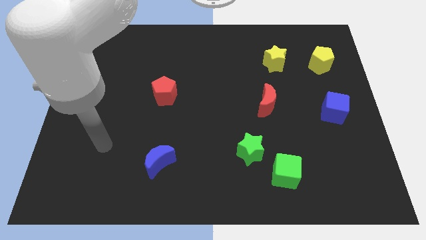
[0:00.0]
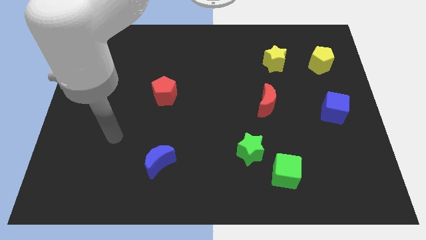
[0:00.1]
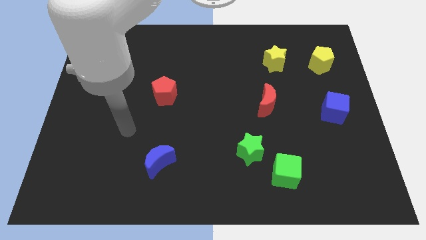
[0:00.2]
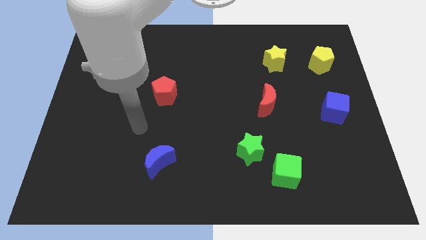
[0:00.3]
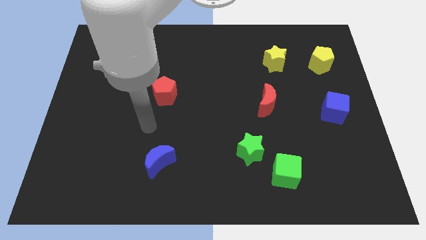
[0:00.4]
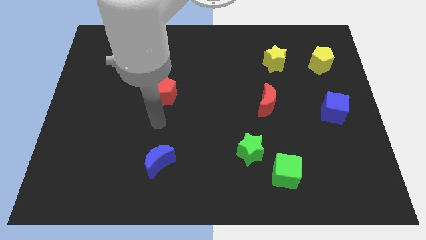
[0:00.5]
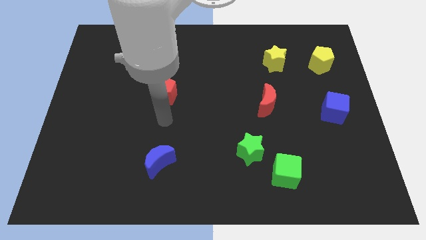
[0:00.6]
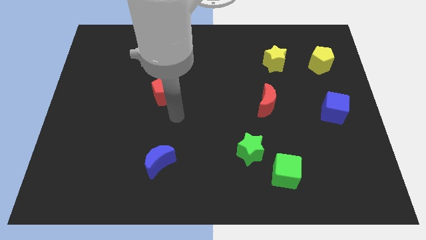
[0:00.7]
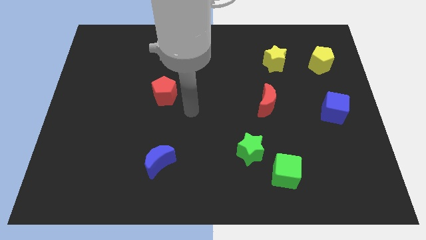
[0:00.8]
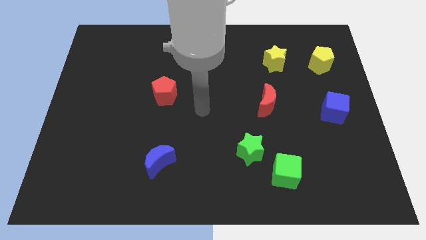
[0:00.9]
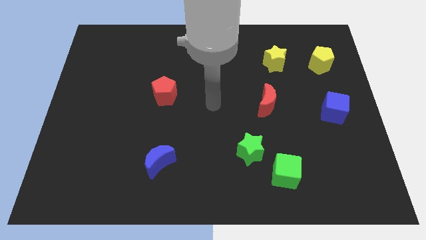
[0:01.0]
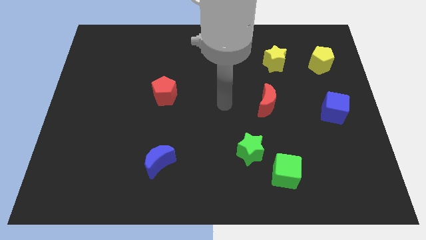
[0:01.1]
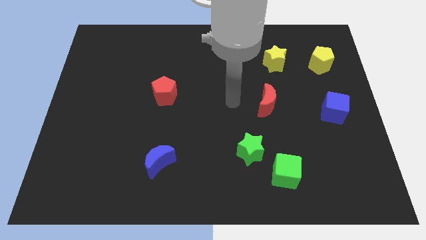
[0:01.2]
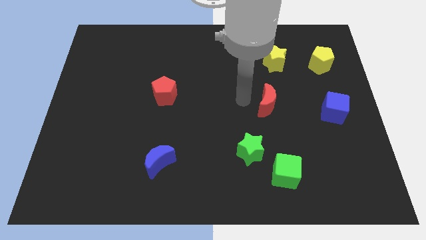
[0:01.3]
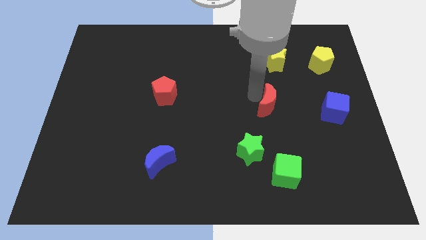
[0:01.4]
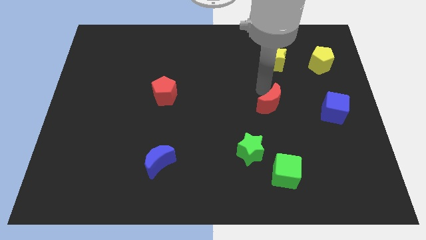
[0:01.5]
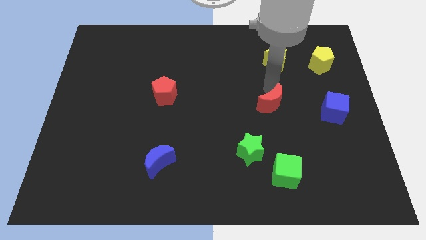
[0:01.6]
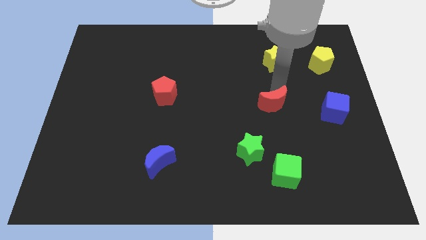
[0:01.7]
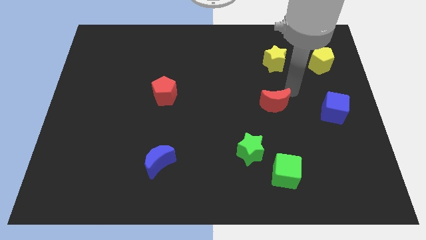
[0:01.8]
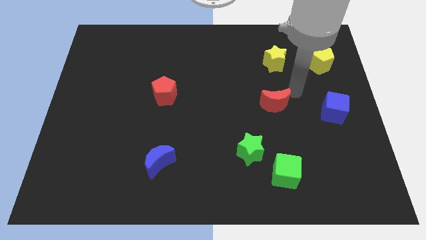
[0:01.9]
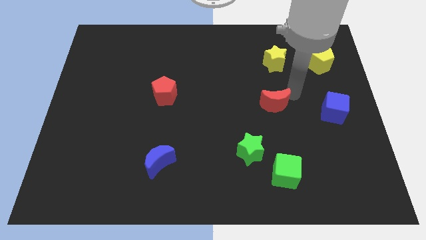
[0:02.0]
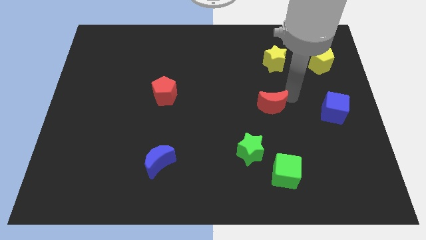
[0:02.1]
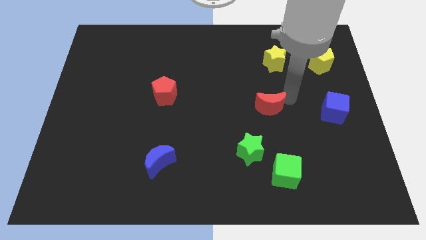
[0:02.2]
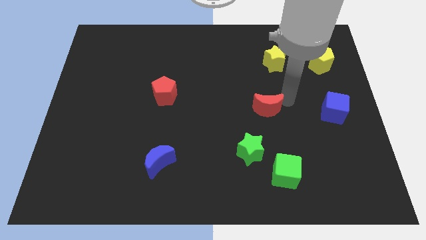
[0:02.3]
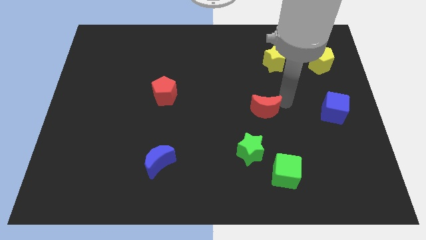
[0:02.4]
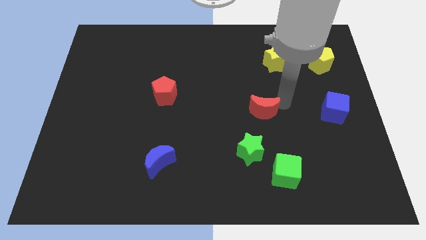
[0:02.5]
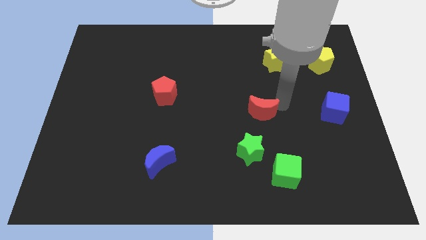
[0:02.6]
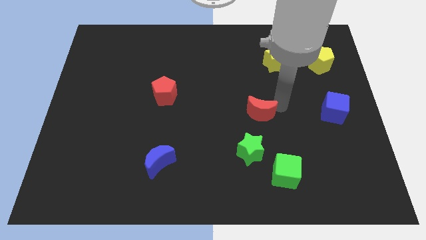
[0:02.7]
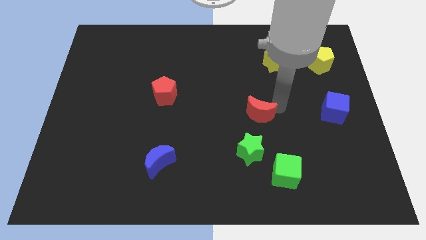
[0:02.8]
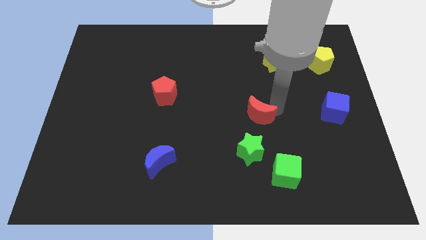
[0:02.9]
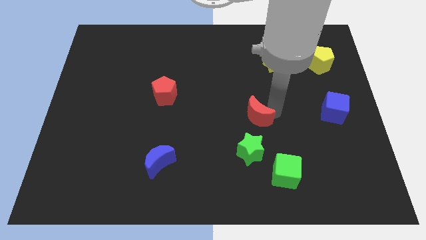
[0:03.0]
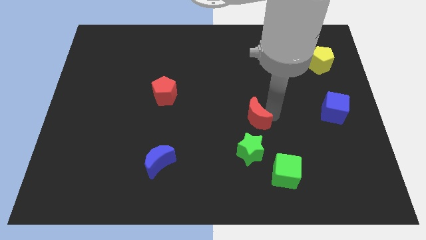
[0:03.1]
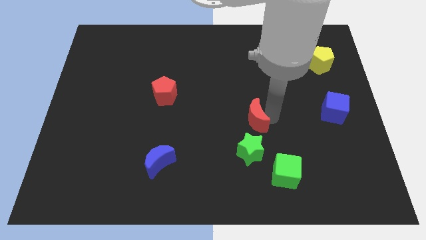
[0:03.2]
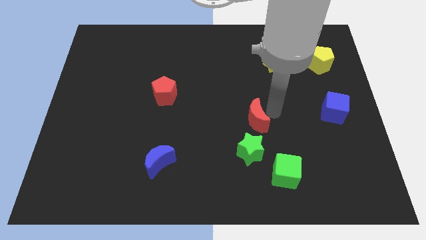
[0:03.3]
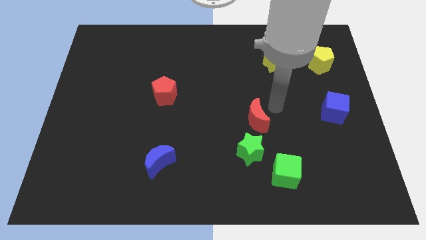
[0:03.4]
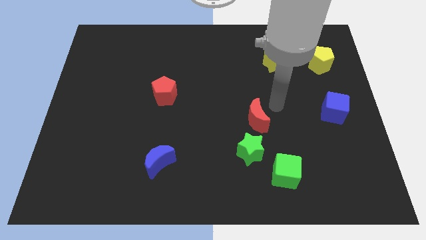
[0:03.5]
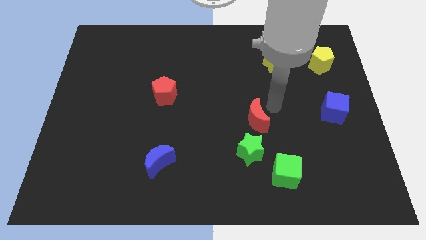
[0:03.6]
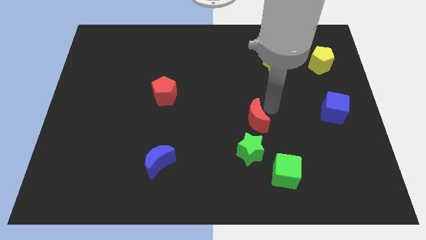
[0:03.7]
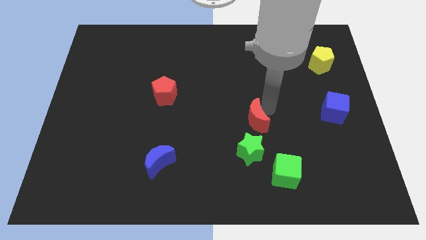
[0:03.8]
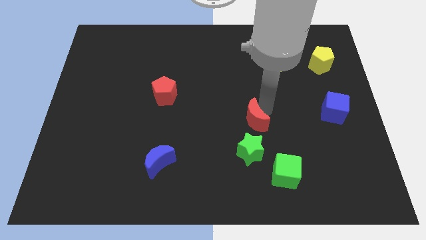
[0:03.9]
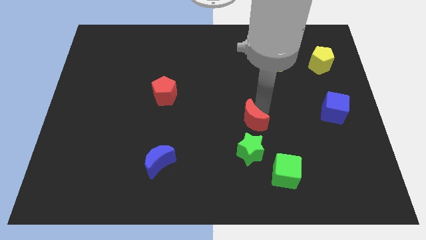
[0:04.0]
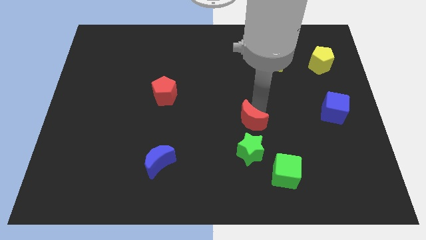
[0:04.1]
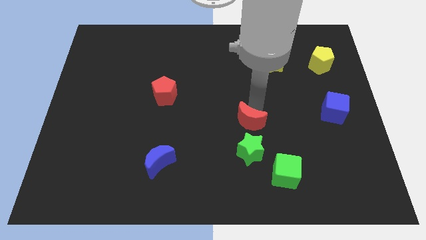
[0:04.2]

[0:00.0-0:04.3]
slide the red moon a bit down and to the left diagonally

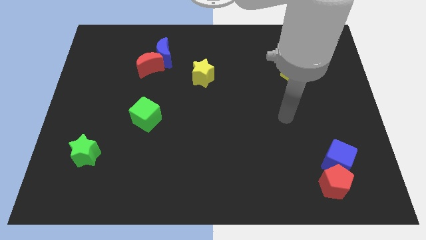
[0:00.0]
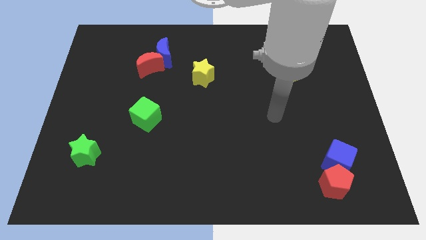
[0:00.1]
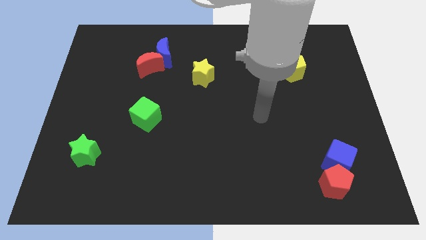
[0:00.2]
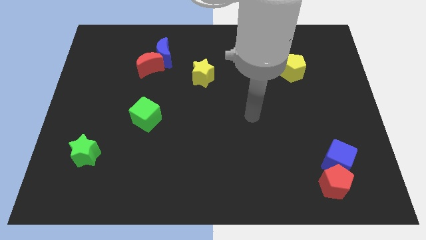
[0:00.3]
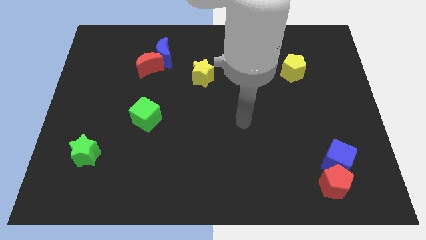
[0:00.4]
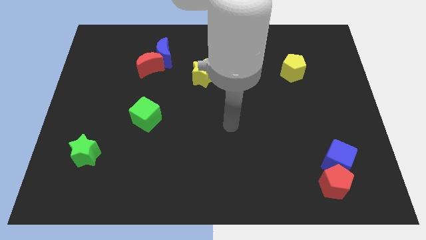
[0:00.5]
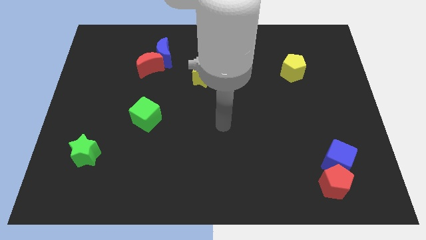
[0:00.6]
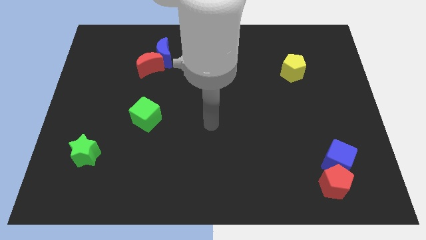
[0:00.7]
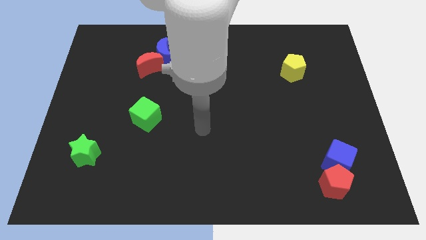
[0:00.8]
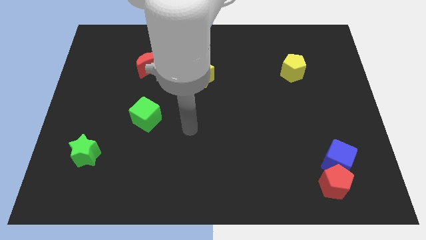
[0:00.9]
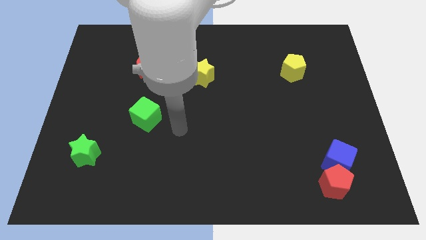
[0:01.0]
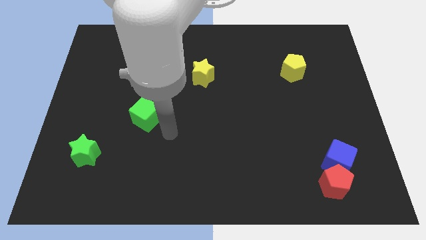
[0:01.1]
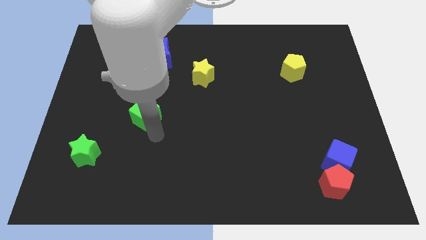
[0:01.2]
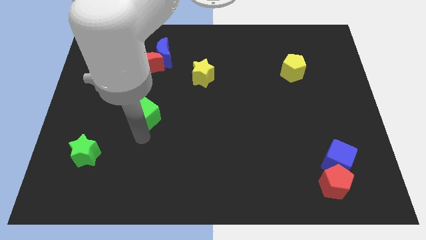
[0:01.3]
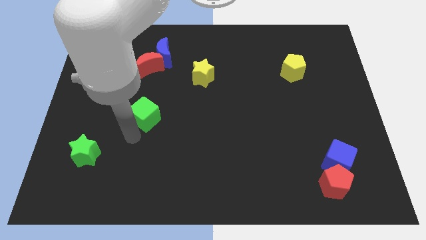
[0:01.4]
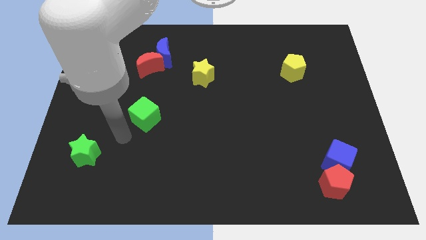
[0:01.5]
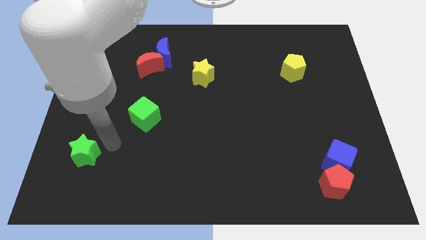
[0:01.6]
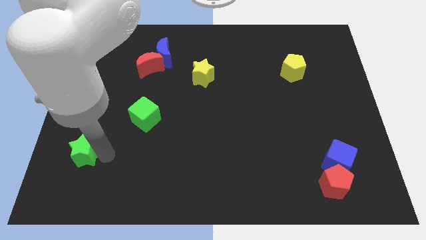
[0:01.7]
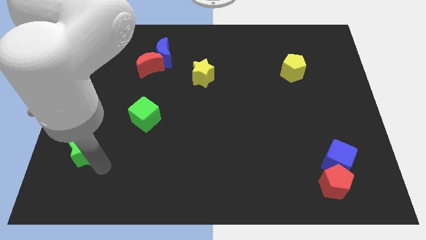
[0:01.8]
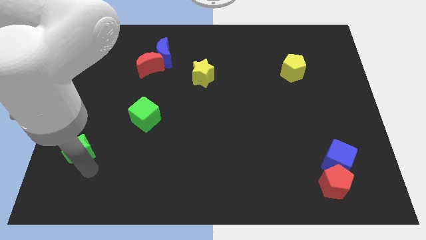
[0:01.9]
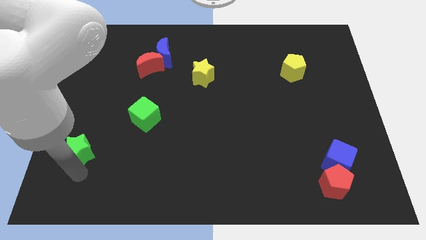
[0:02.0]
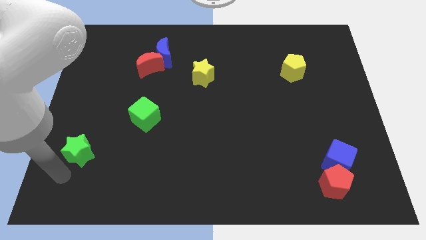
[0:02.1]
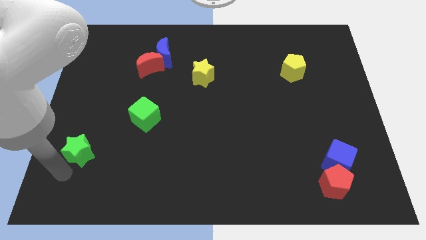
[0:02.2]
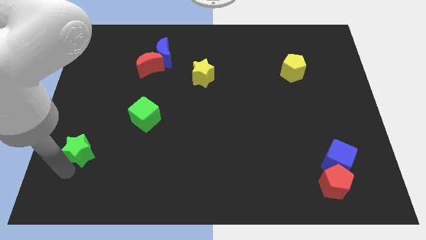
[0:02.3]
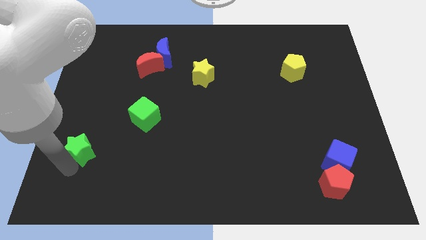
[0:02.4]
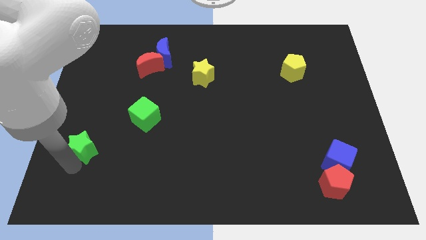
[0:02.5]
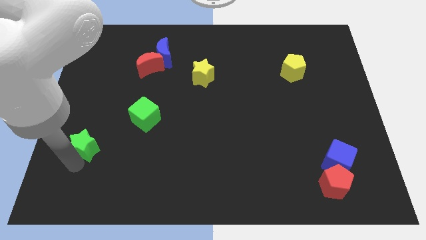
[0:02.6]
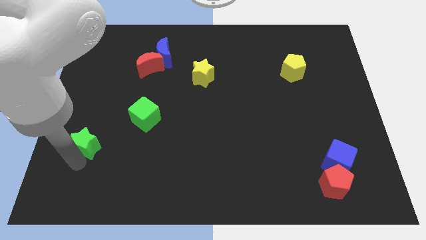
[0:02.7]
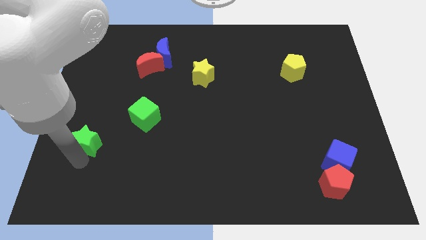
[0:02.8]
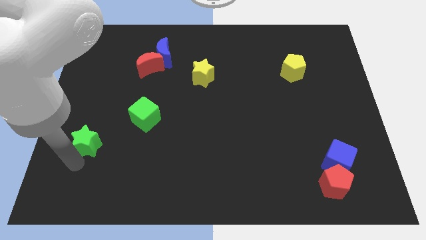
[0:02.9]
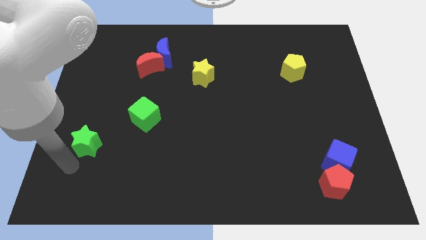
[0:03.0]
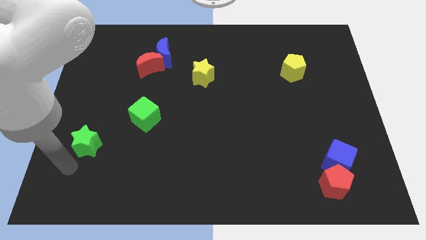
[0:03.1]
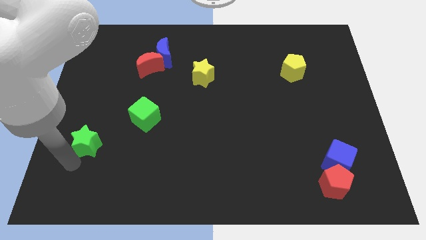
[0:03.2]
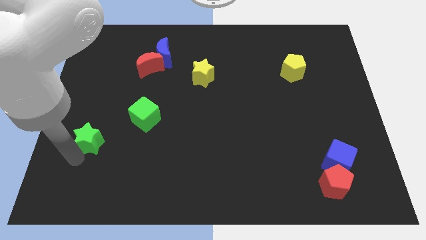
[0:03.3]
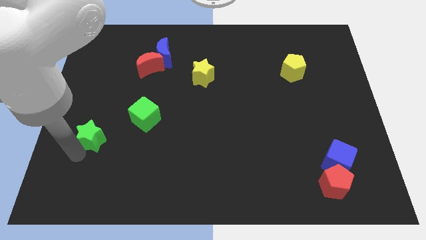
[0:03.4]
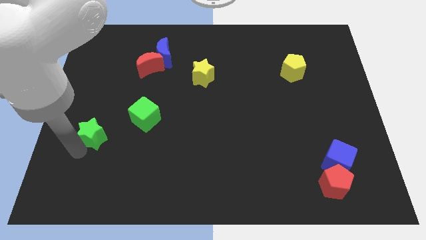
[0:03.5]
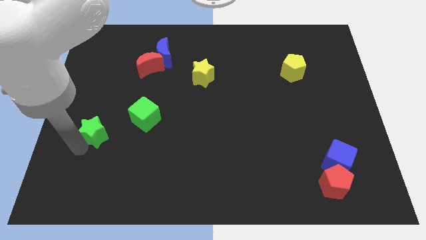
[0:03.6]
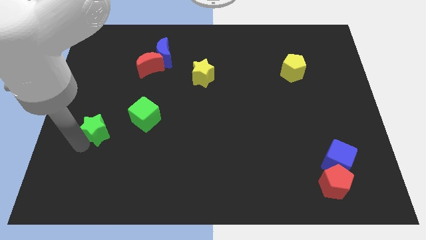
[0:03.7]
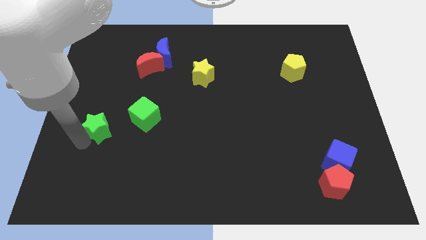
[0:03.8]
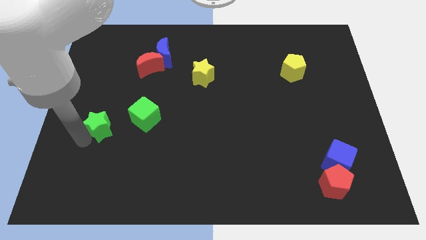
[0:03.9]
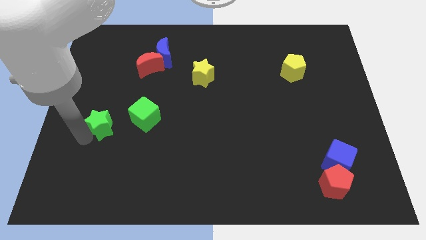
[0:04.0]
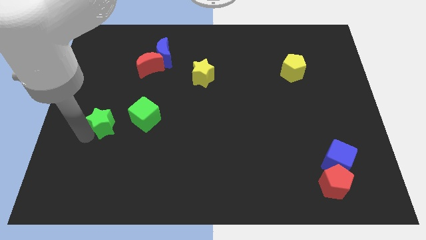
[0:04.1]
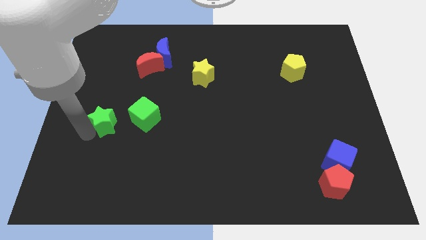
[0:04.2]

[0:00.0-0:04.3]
move the green star somewhat upwards and right
